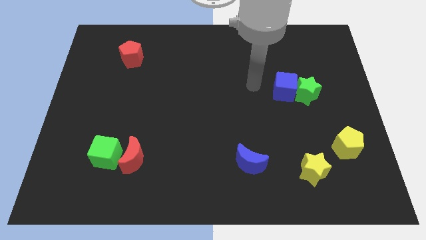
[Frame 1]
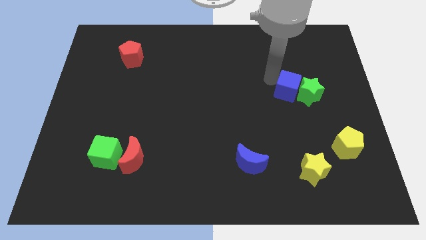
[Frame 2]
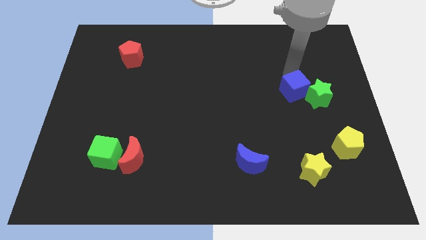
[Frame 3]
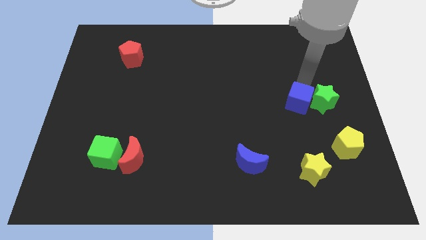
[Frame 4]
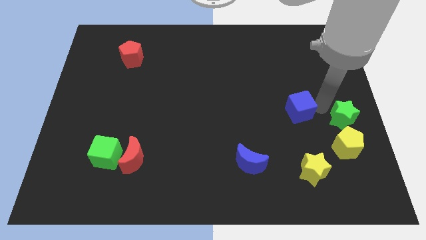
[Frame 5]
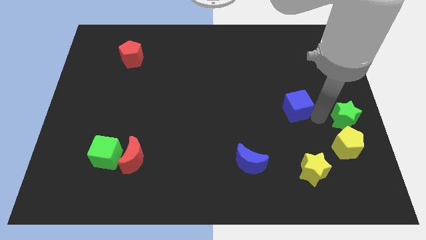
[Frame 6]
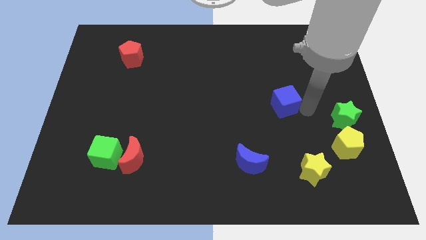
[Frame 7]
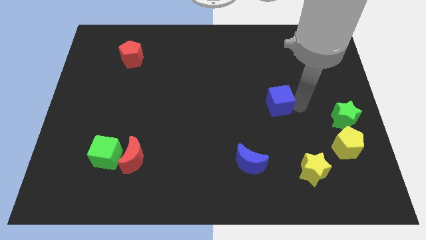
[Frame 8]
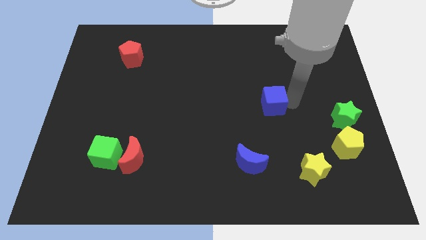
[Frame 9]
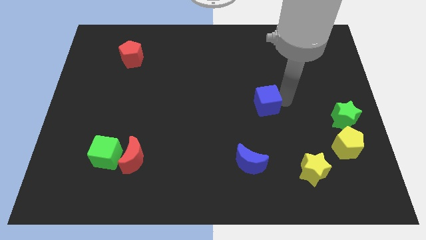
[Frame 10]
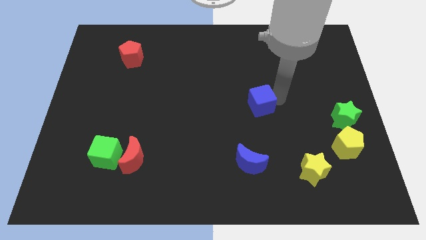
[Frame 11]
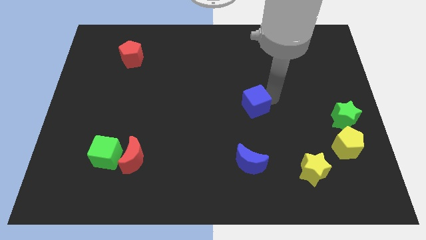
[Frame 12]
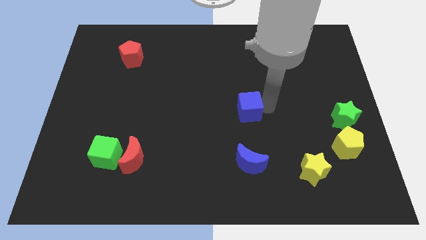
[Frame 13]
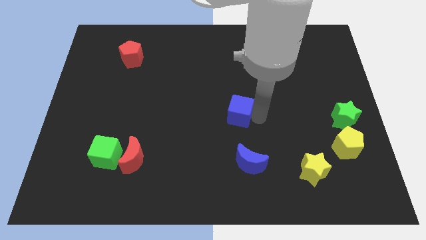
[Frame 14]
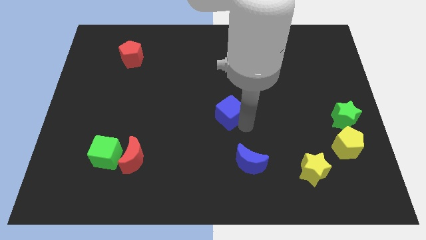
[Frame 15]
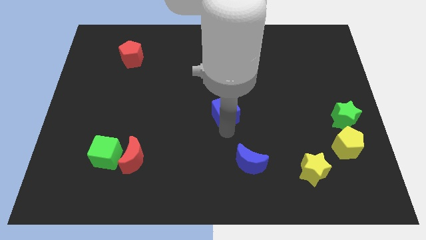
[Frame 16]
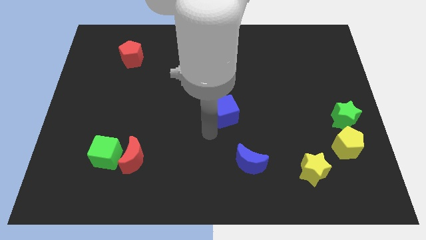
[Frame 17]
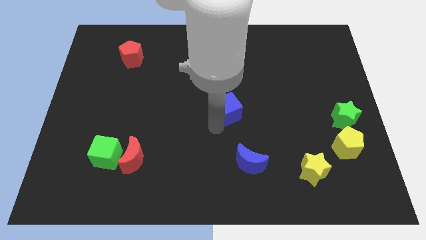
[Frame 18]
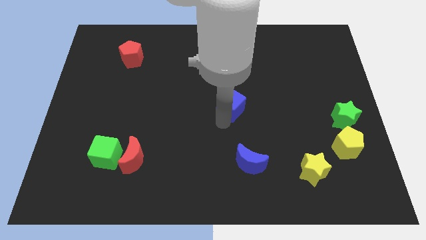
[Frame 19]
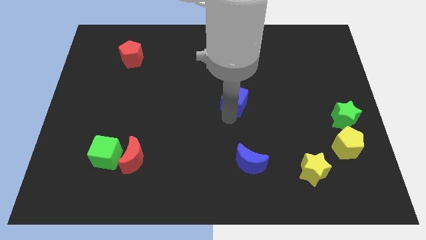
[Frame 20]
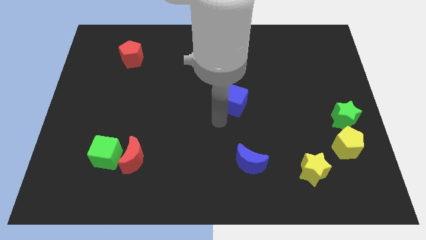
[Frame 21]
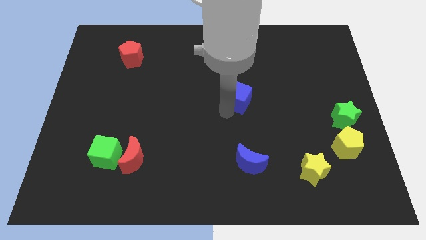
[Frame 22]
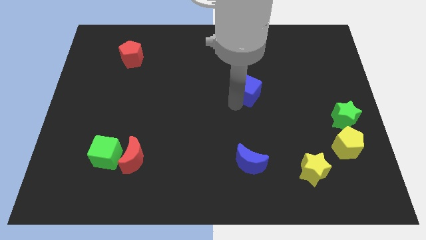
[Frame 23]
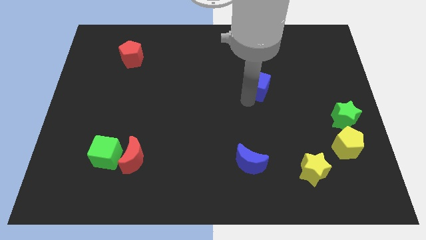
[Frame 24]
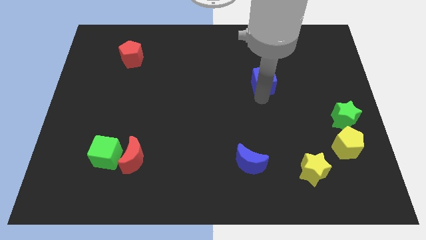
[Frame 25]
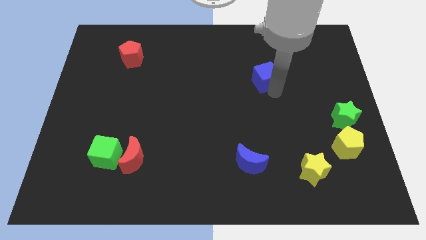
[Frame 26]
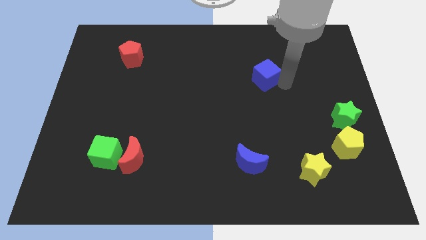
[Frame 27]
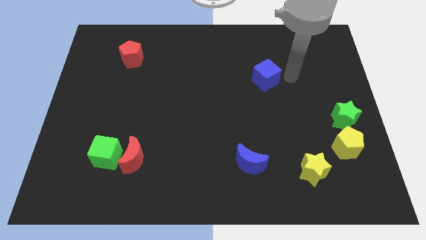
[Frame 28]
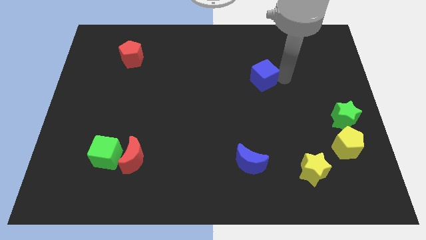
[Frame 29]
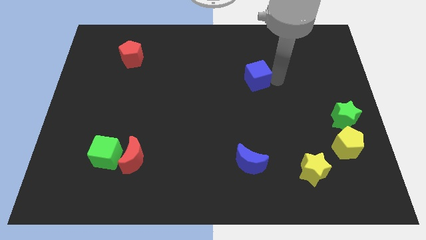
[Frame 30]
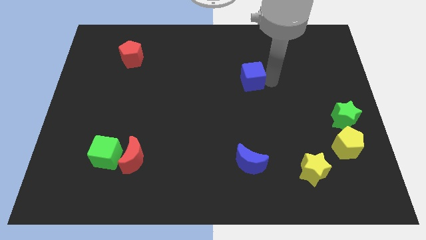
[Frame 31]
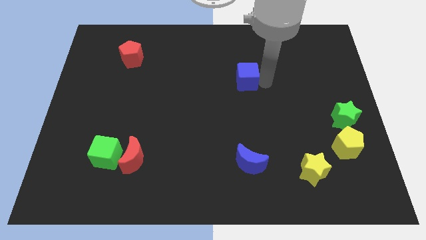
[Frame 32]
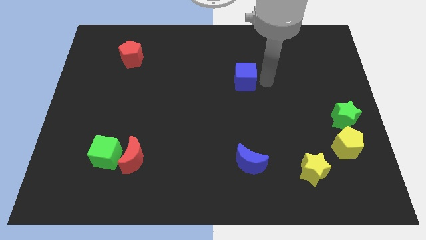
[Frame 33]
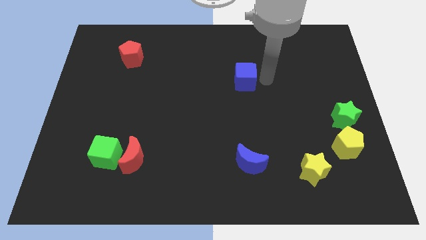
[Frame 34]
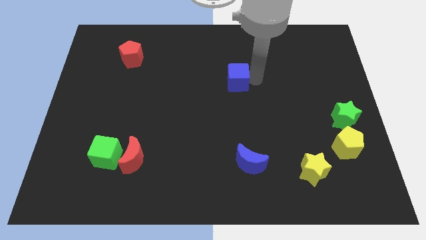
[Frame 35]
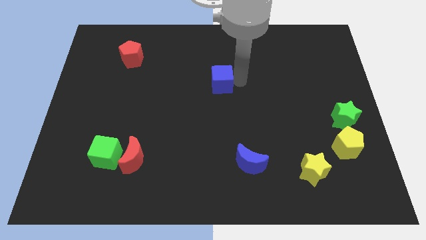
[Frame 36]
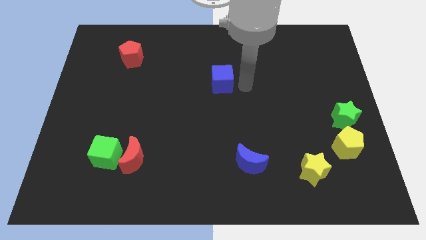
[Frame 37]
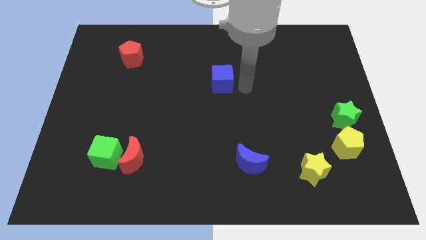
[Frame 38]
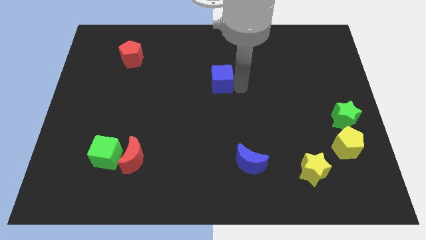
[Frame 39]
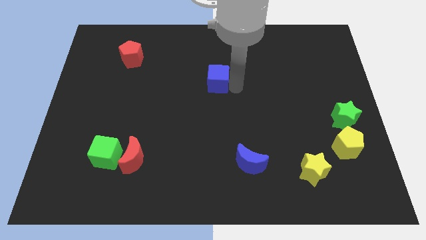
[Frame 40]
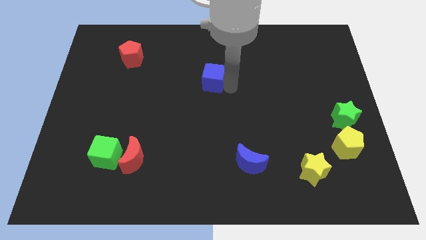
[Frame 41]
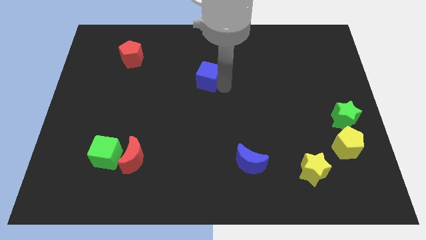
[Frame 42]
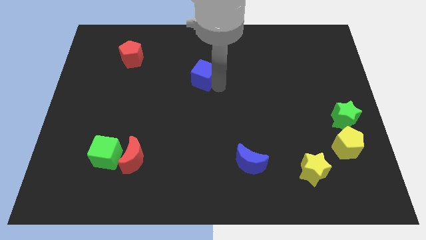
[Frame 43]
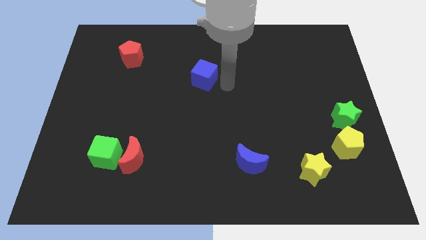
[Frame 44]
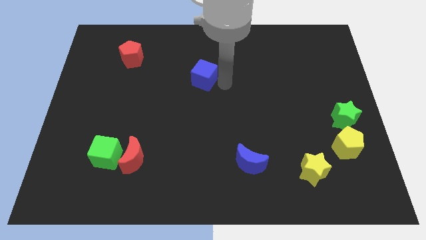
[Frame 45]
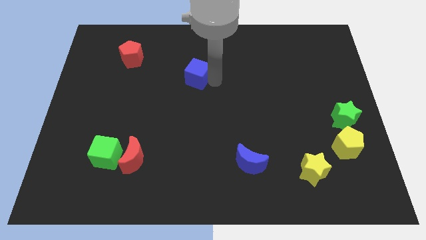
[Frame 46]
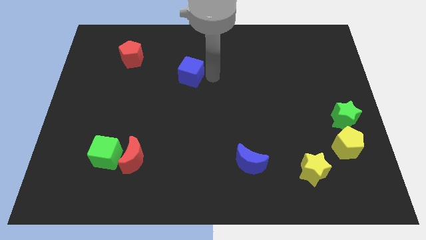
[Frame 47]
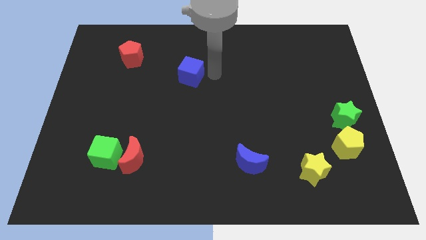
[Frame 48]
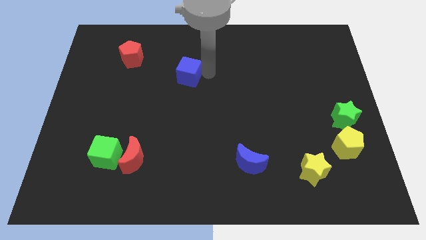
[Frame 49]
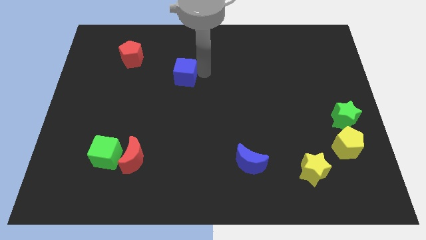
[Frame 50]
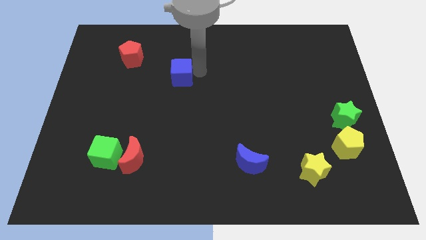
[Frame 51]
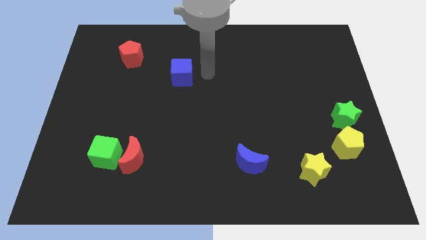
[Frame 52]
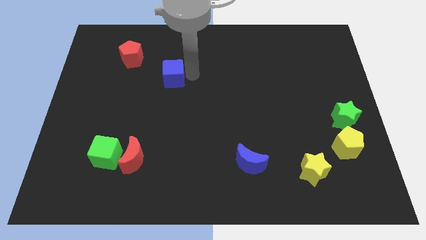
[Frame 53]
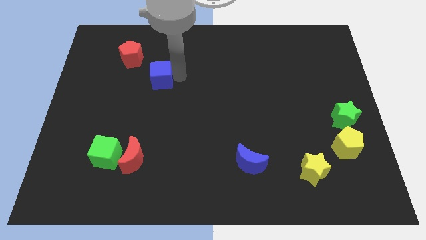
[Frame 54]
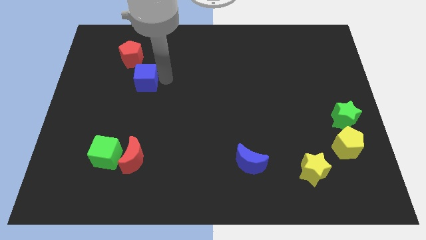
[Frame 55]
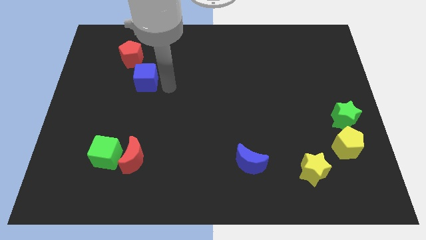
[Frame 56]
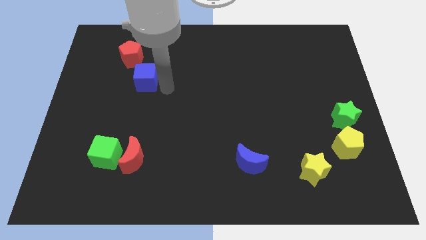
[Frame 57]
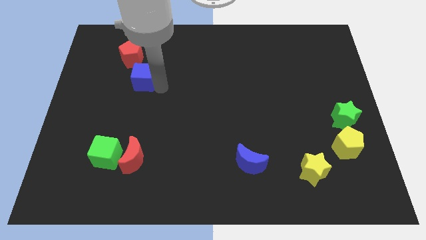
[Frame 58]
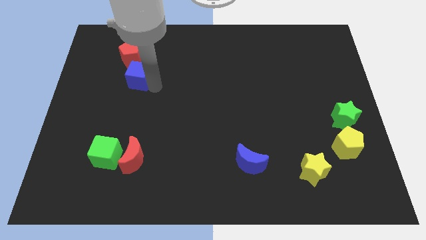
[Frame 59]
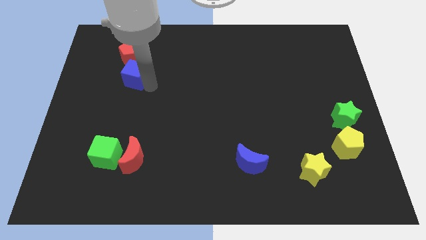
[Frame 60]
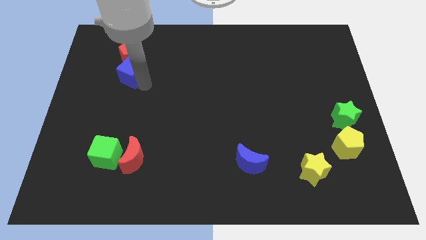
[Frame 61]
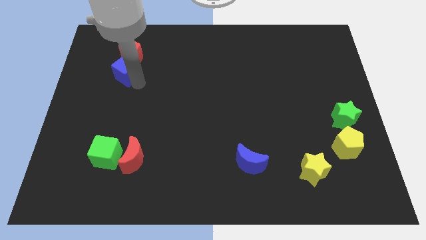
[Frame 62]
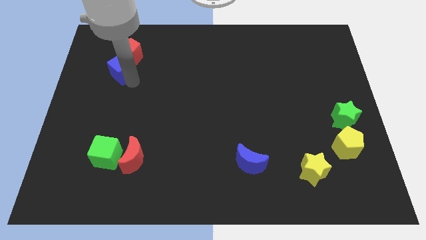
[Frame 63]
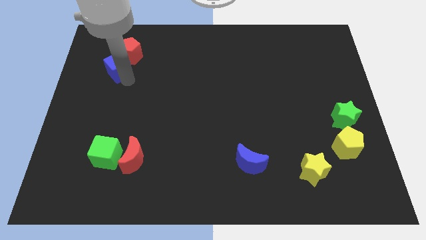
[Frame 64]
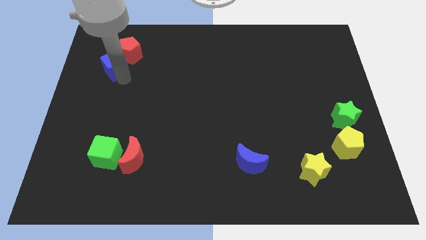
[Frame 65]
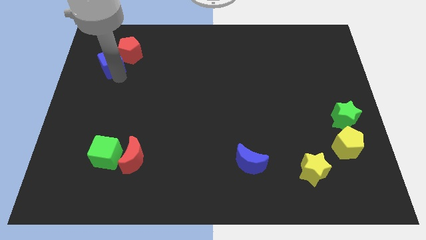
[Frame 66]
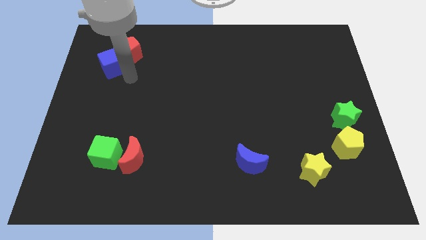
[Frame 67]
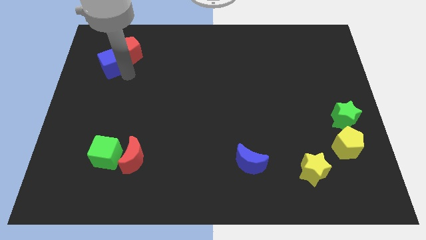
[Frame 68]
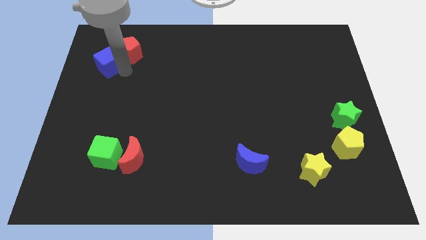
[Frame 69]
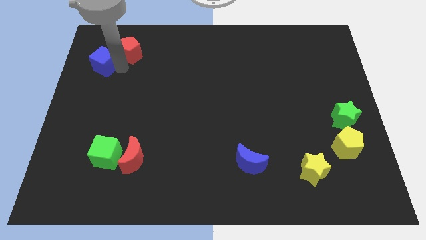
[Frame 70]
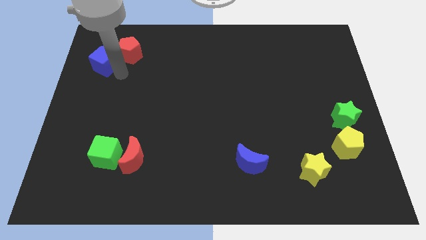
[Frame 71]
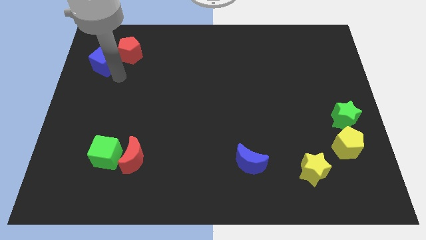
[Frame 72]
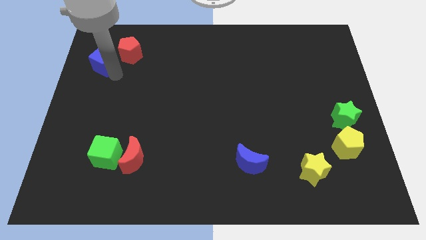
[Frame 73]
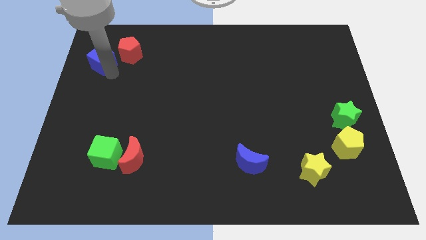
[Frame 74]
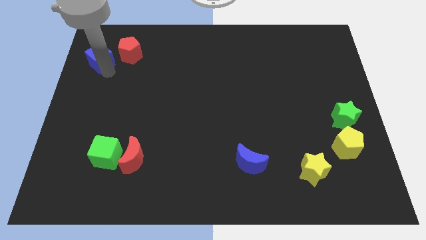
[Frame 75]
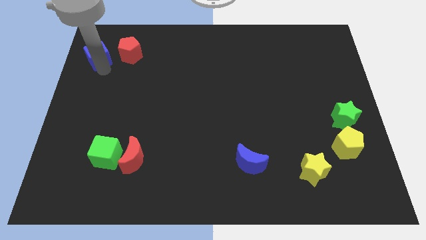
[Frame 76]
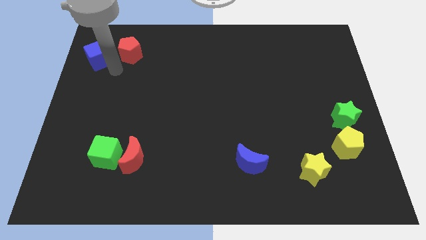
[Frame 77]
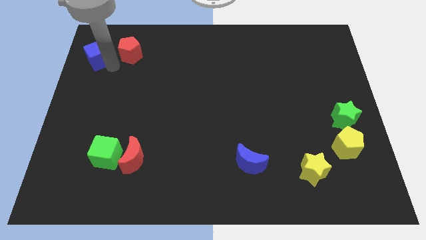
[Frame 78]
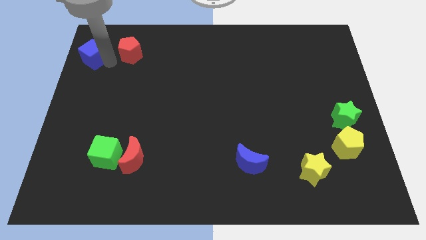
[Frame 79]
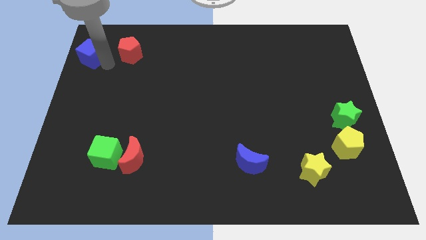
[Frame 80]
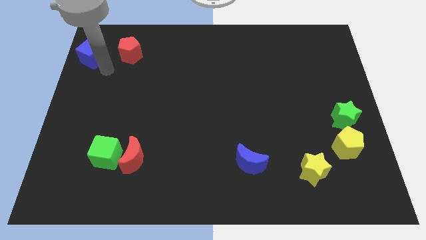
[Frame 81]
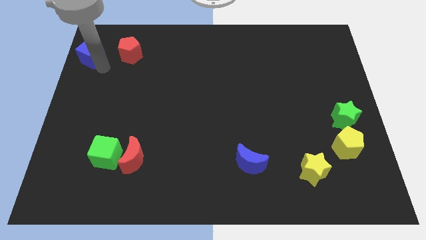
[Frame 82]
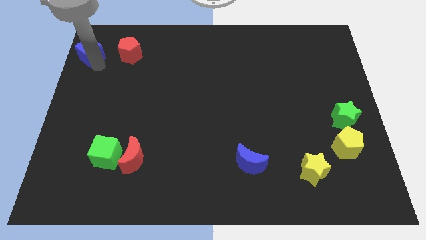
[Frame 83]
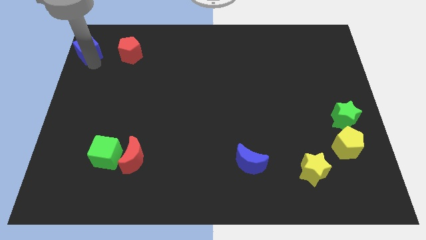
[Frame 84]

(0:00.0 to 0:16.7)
push the blue cube to the upper left corner
